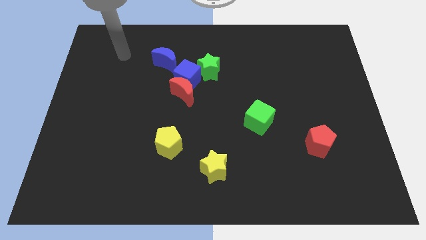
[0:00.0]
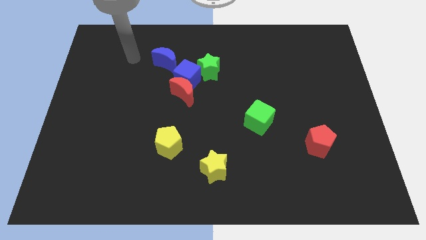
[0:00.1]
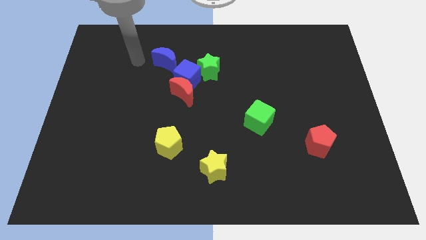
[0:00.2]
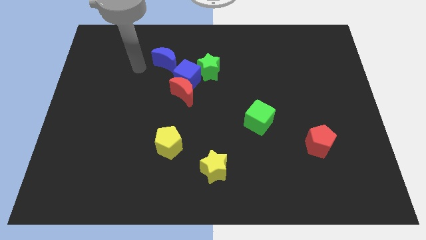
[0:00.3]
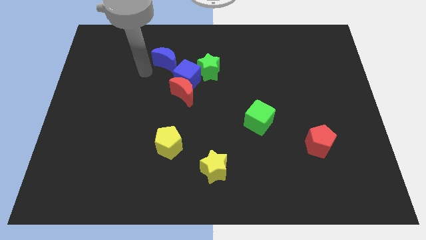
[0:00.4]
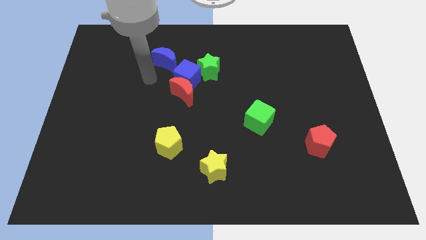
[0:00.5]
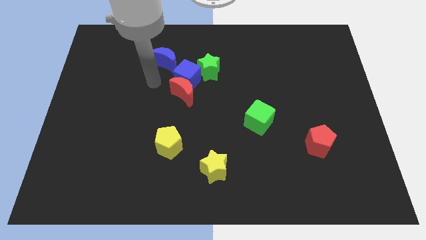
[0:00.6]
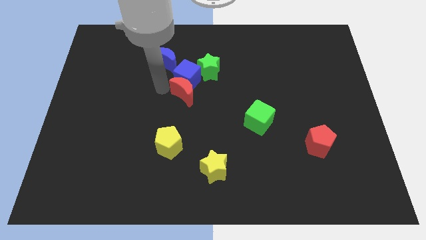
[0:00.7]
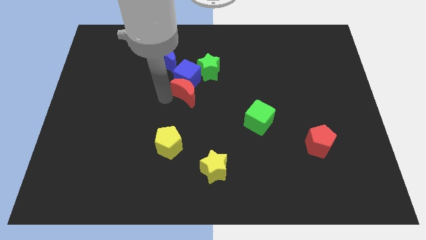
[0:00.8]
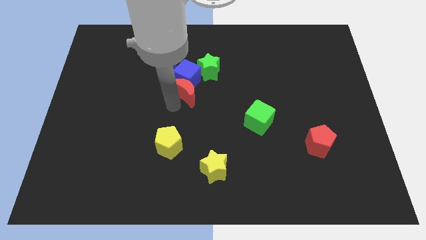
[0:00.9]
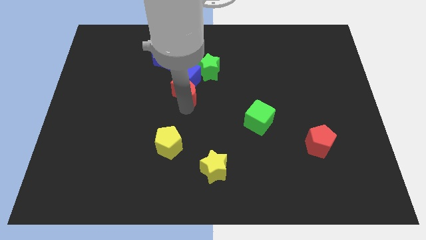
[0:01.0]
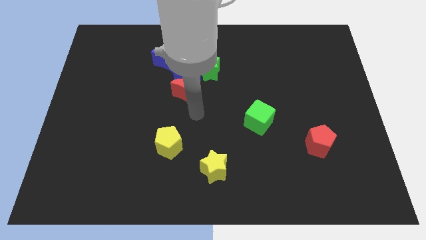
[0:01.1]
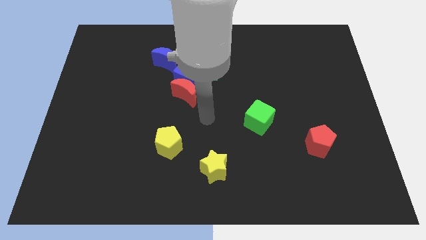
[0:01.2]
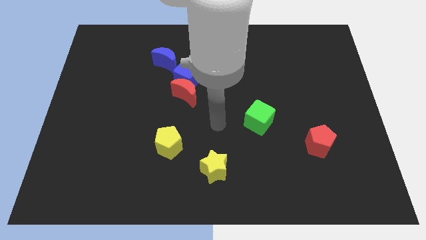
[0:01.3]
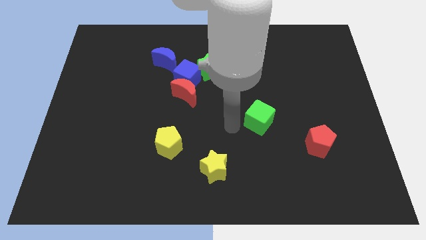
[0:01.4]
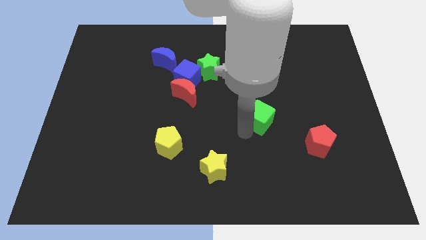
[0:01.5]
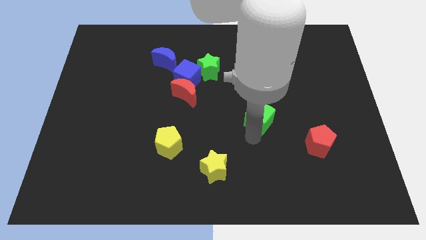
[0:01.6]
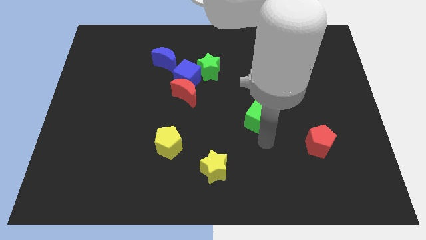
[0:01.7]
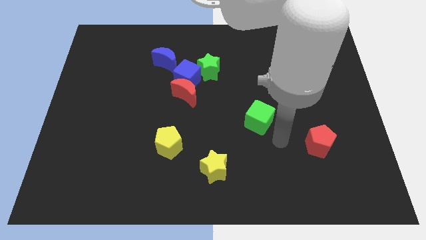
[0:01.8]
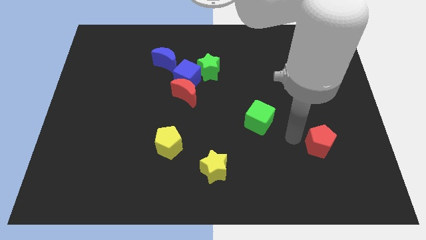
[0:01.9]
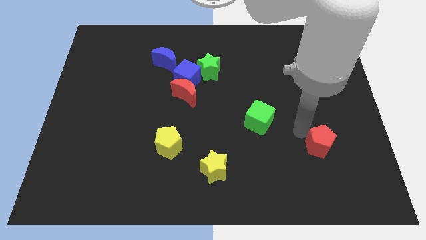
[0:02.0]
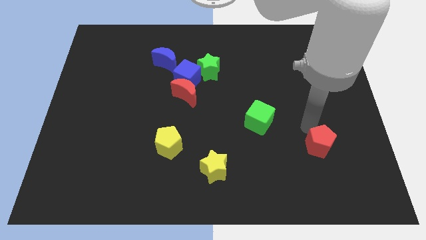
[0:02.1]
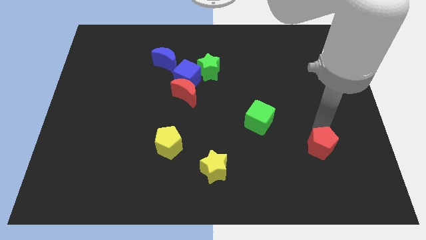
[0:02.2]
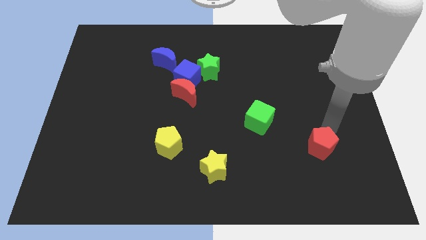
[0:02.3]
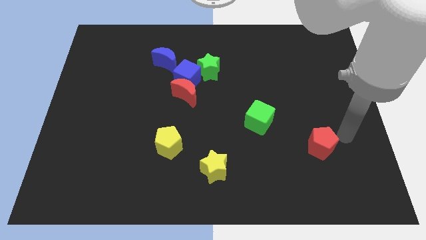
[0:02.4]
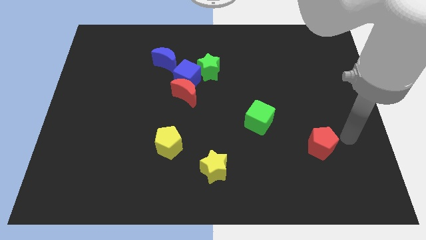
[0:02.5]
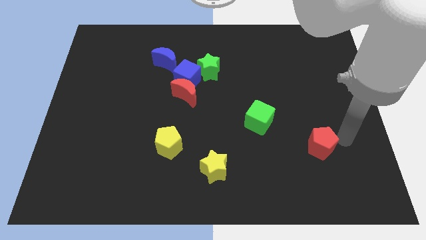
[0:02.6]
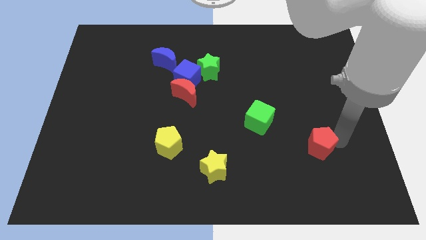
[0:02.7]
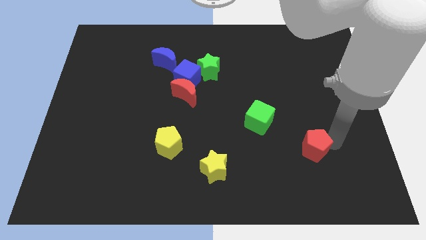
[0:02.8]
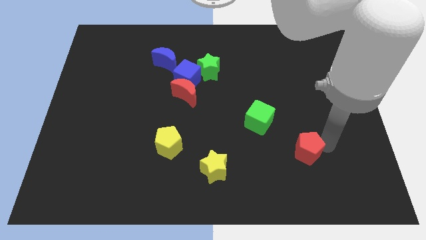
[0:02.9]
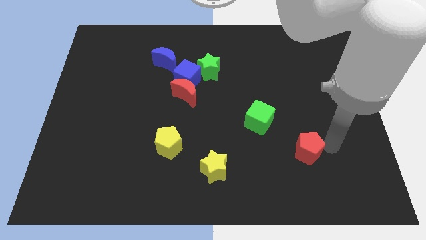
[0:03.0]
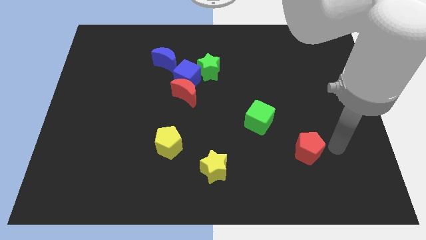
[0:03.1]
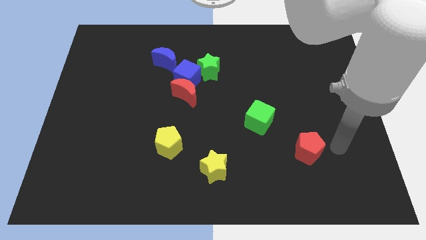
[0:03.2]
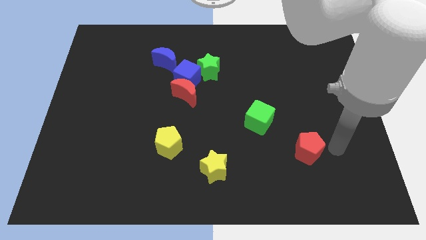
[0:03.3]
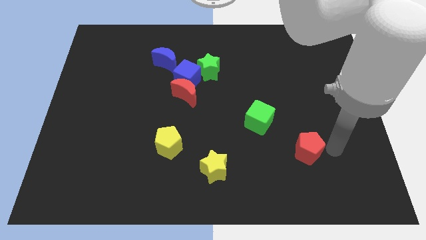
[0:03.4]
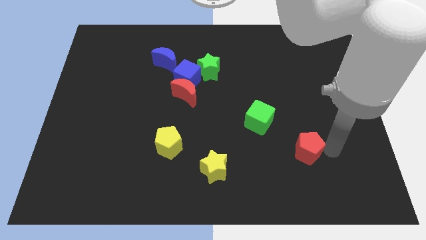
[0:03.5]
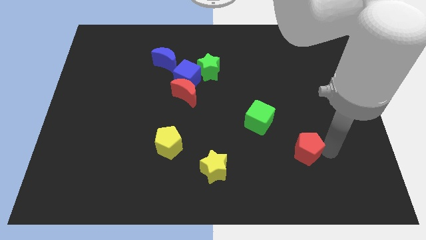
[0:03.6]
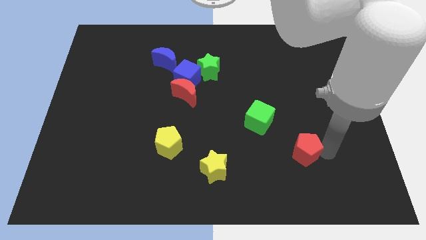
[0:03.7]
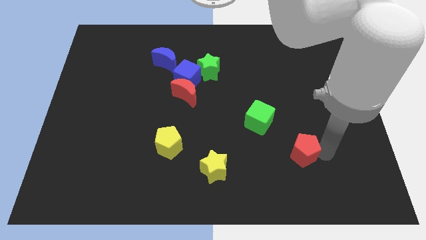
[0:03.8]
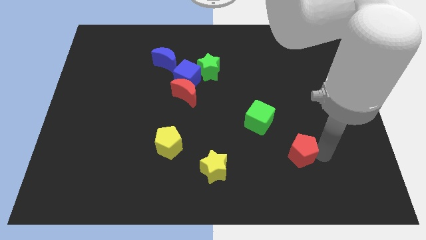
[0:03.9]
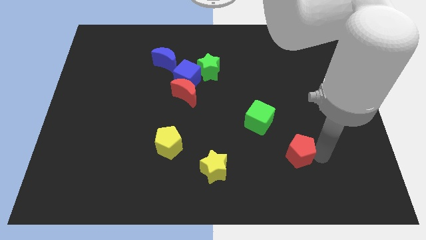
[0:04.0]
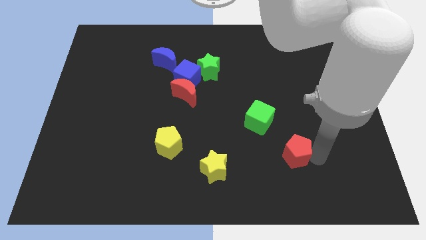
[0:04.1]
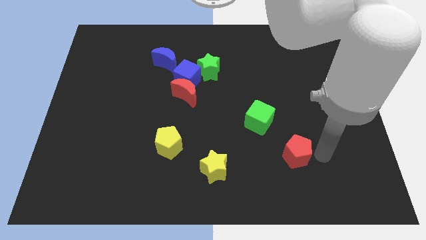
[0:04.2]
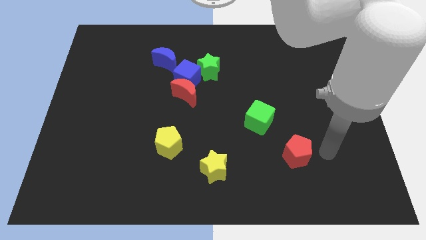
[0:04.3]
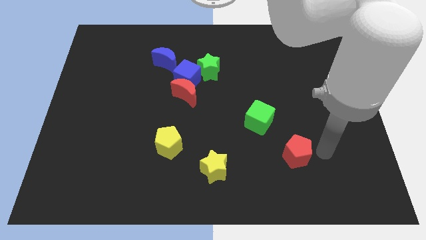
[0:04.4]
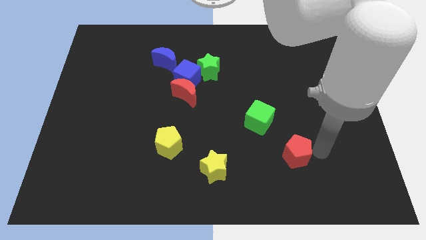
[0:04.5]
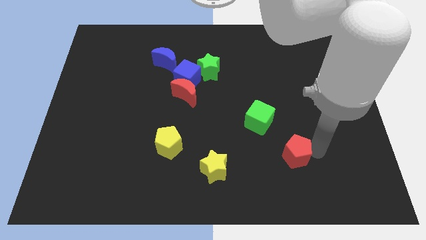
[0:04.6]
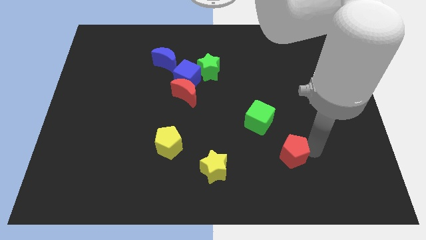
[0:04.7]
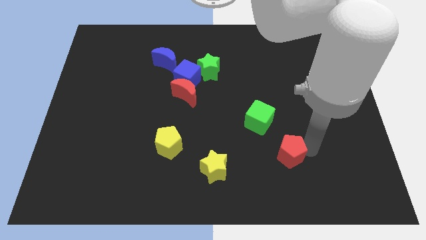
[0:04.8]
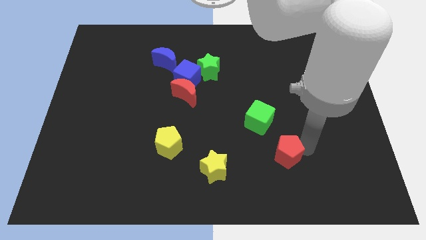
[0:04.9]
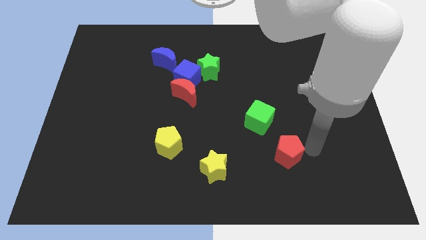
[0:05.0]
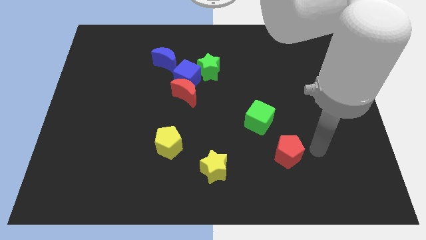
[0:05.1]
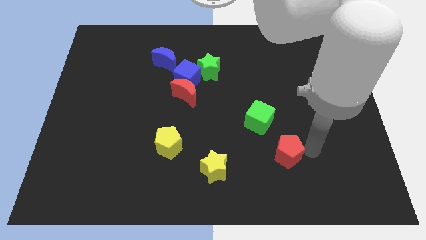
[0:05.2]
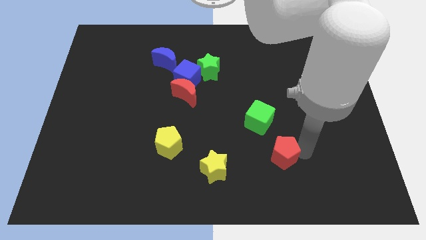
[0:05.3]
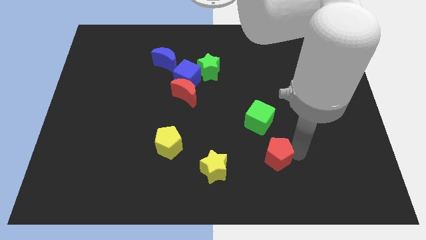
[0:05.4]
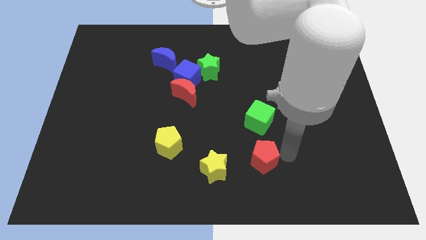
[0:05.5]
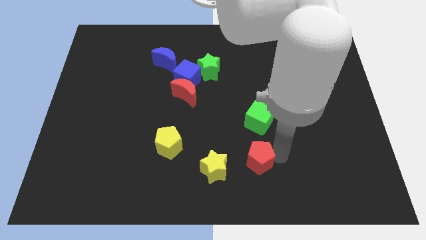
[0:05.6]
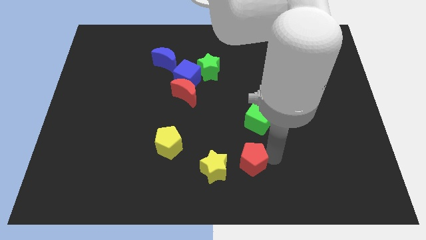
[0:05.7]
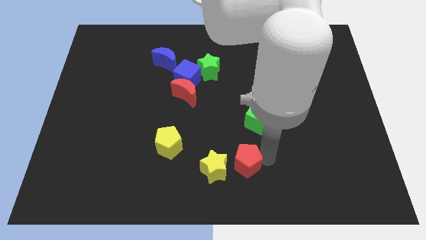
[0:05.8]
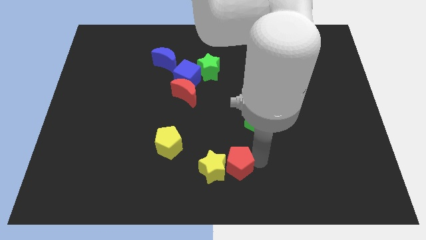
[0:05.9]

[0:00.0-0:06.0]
move the red pentagon towards the yellow star

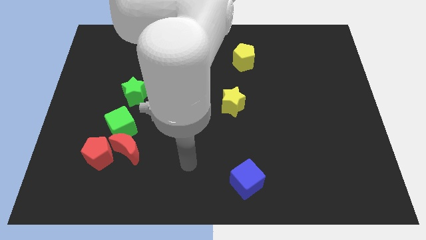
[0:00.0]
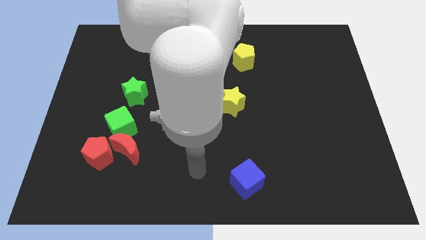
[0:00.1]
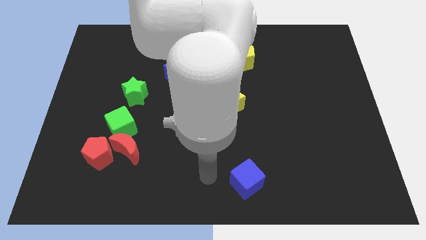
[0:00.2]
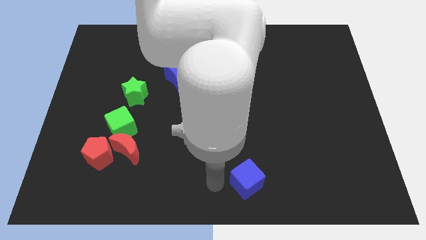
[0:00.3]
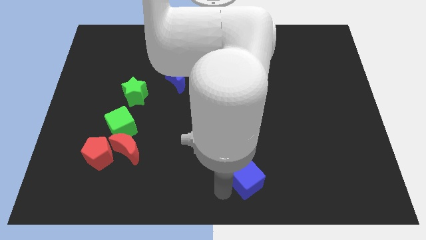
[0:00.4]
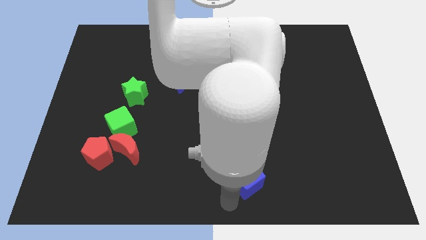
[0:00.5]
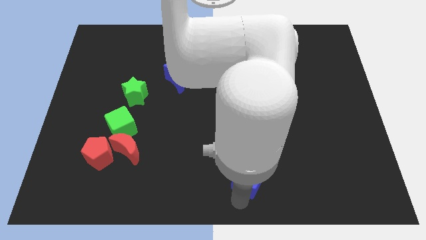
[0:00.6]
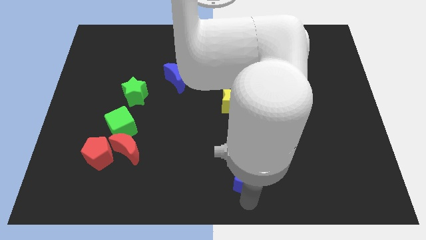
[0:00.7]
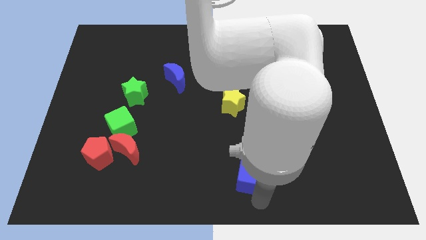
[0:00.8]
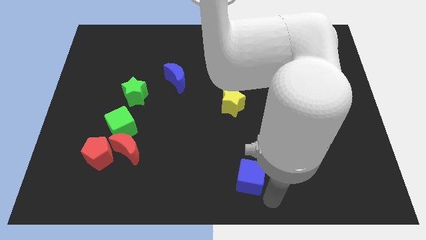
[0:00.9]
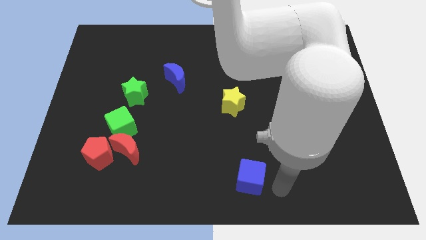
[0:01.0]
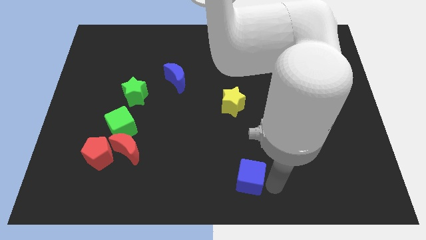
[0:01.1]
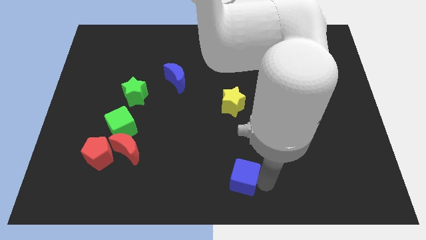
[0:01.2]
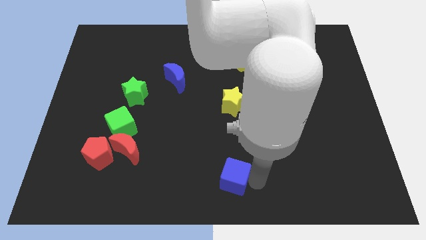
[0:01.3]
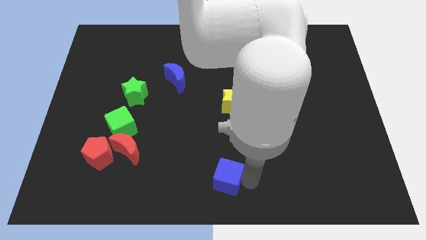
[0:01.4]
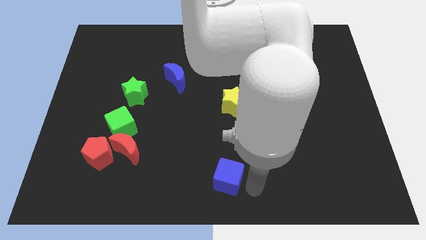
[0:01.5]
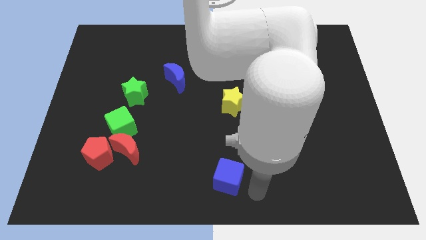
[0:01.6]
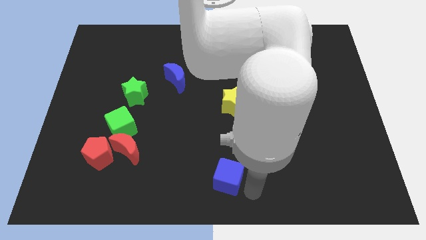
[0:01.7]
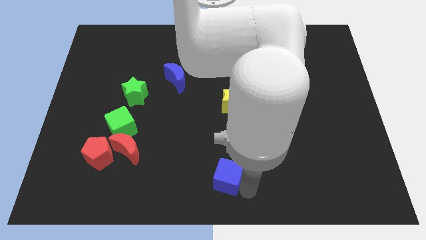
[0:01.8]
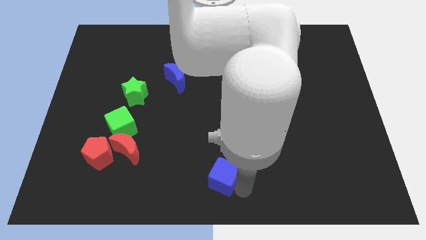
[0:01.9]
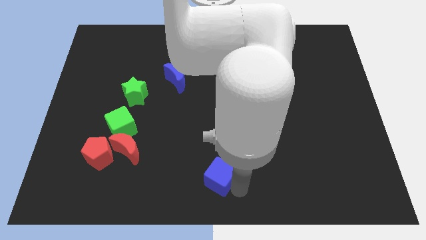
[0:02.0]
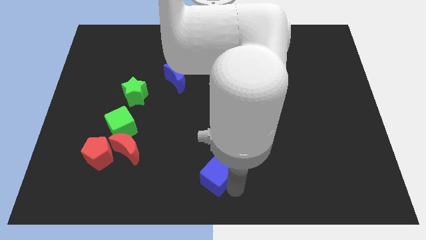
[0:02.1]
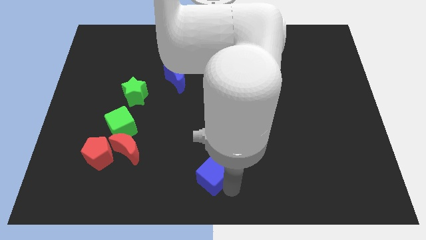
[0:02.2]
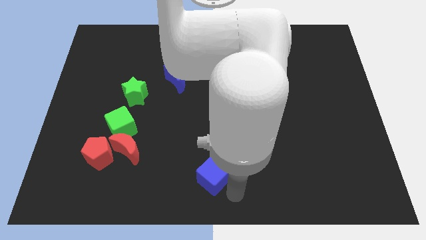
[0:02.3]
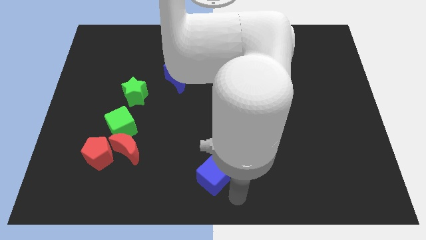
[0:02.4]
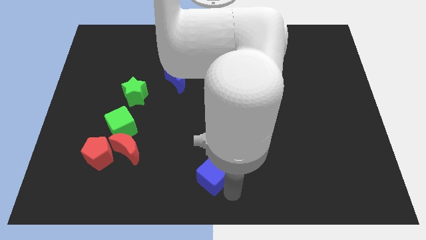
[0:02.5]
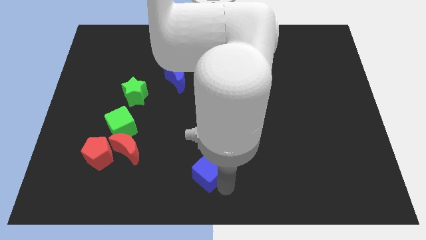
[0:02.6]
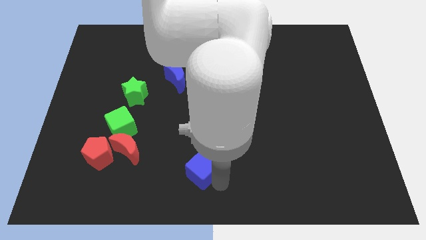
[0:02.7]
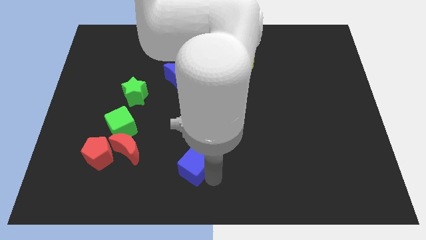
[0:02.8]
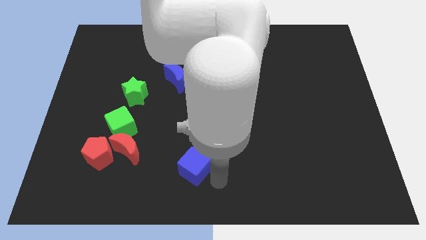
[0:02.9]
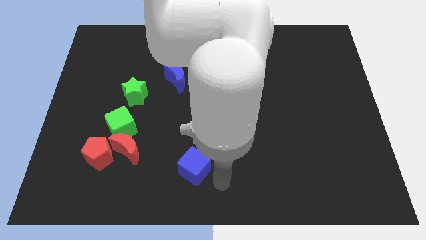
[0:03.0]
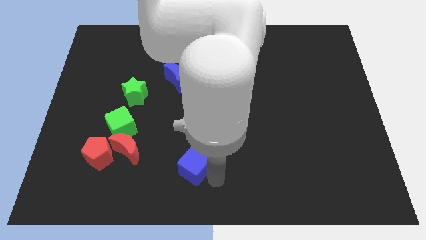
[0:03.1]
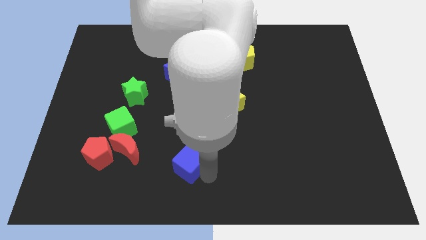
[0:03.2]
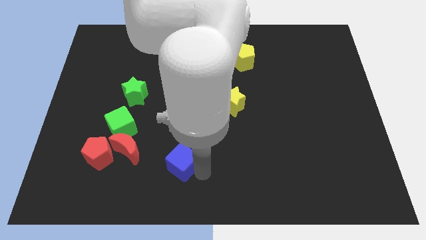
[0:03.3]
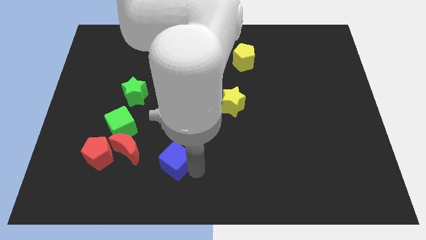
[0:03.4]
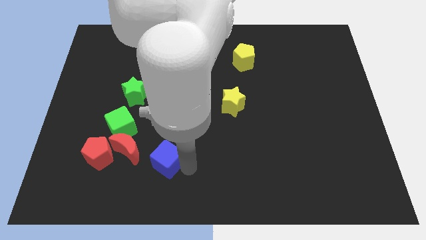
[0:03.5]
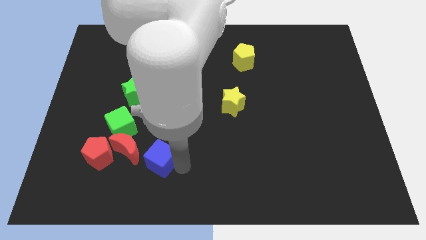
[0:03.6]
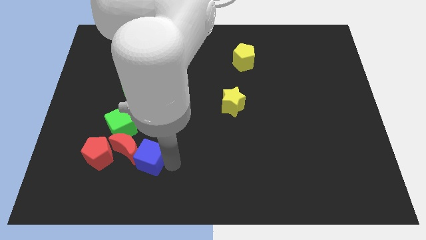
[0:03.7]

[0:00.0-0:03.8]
slide the blue cube next to the red moon
